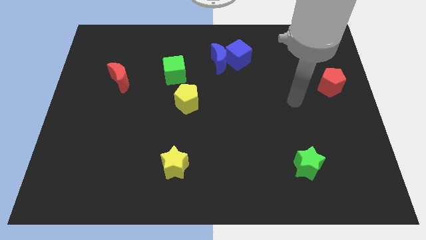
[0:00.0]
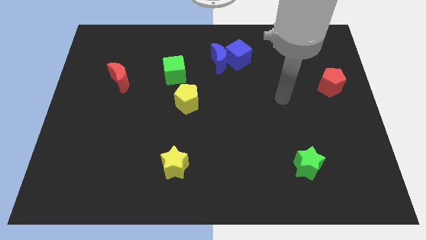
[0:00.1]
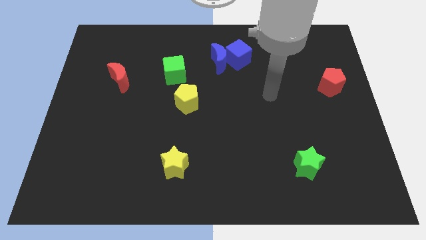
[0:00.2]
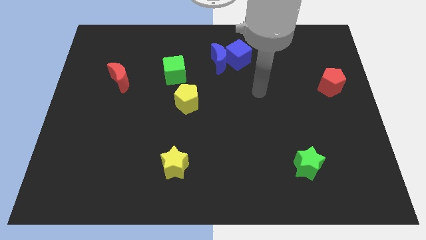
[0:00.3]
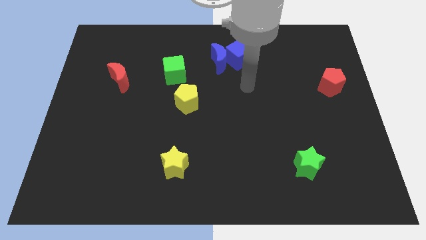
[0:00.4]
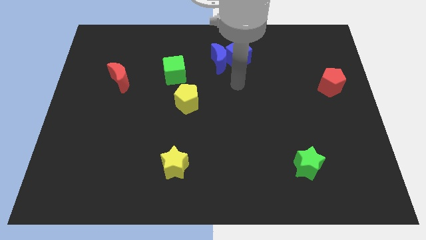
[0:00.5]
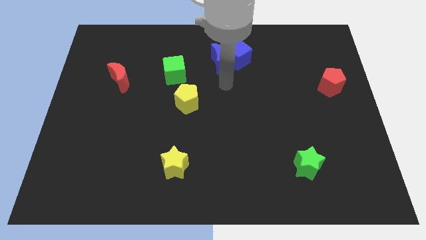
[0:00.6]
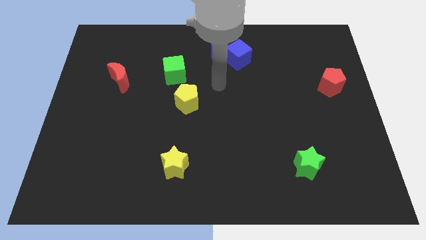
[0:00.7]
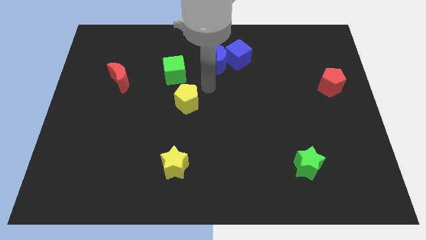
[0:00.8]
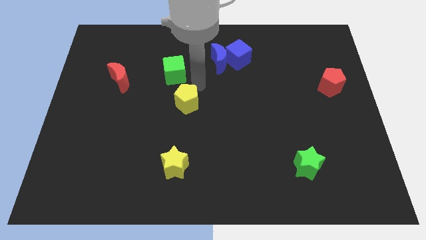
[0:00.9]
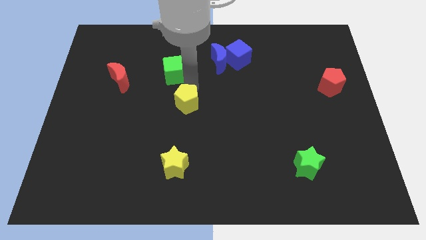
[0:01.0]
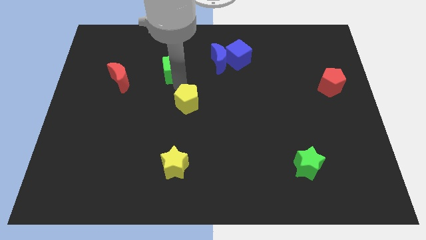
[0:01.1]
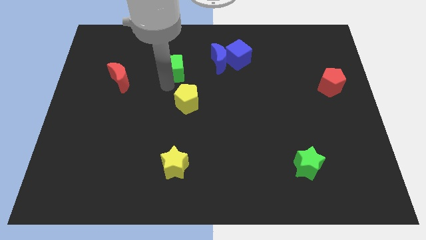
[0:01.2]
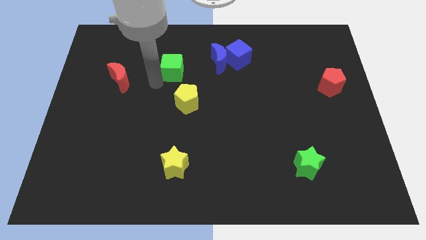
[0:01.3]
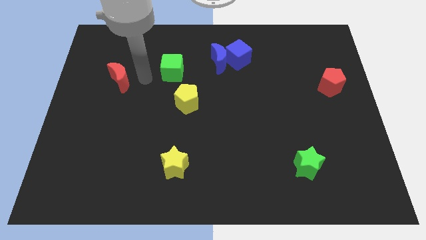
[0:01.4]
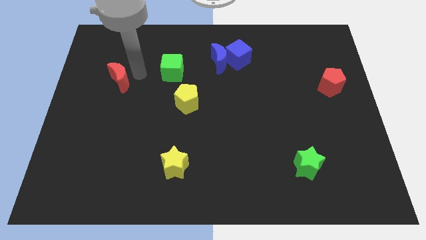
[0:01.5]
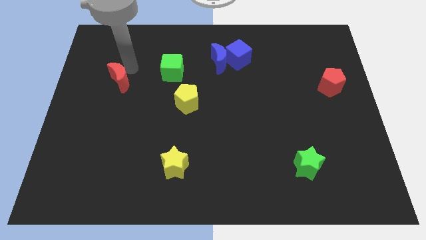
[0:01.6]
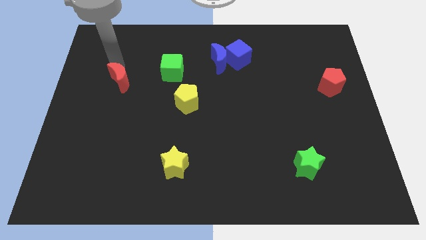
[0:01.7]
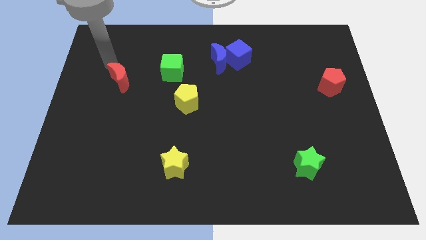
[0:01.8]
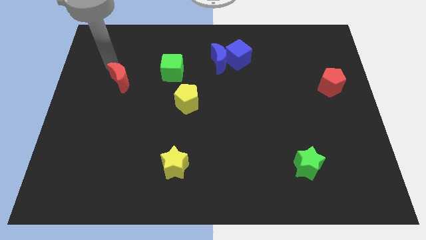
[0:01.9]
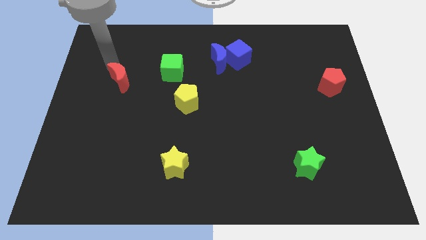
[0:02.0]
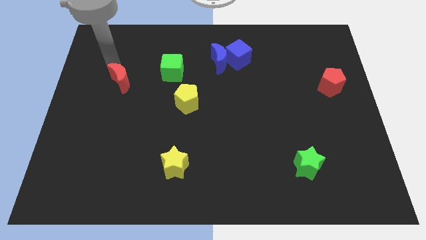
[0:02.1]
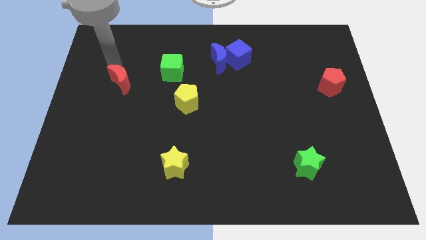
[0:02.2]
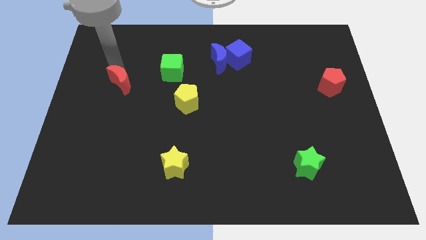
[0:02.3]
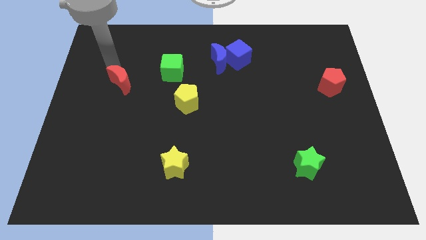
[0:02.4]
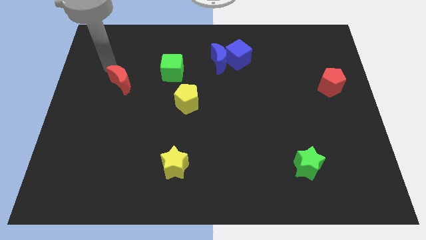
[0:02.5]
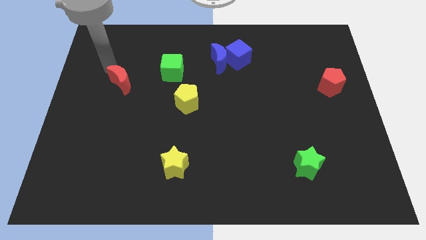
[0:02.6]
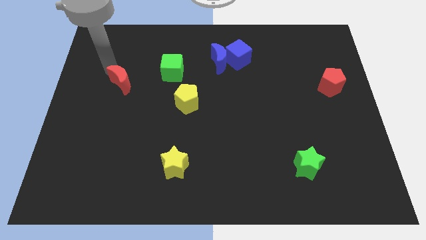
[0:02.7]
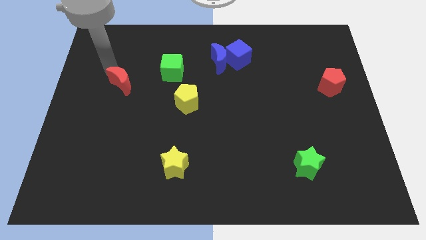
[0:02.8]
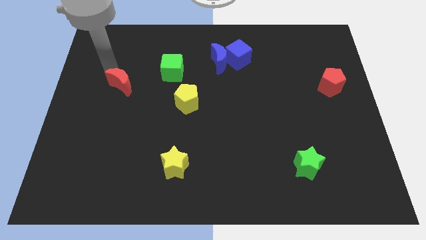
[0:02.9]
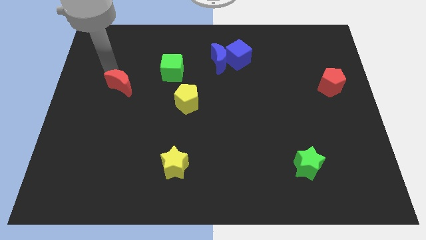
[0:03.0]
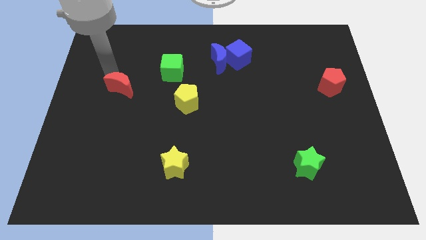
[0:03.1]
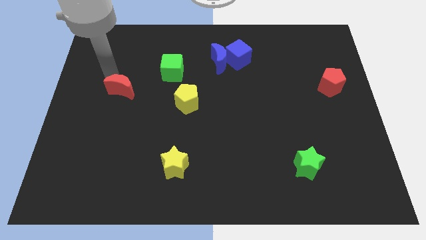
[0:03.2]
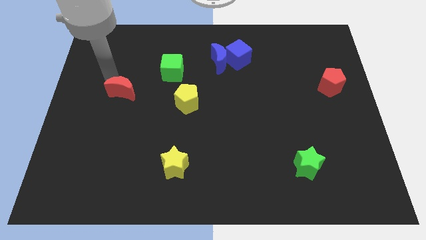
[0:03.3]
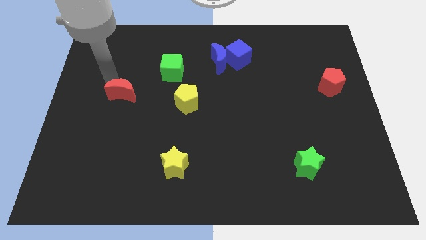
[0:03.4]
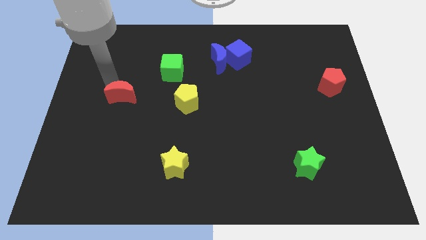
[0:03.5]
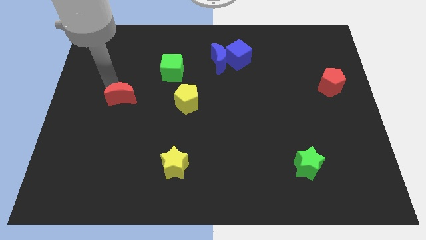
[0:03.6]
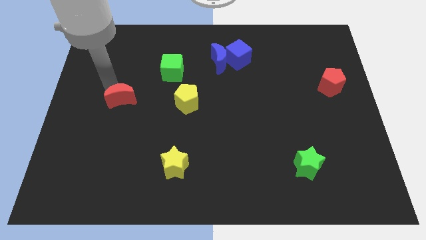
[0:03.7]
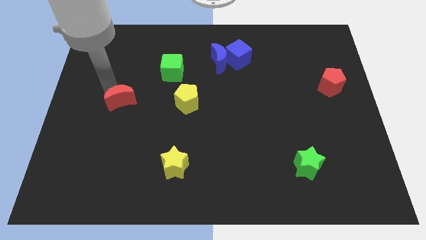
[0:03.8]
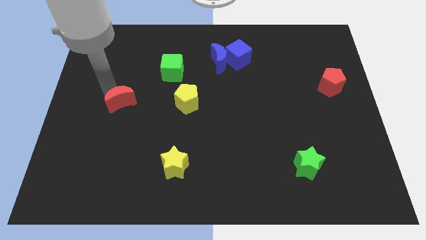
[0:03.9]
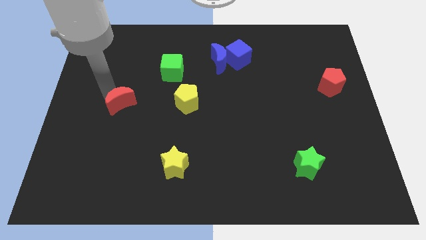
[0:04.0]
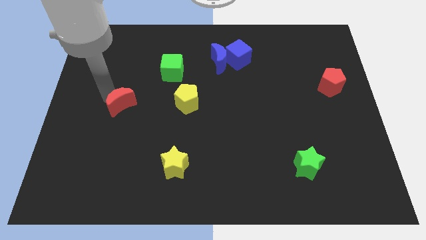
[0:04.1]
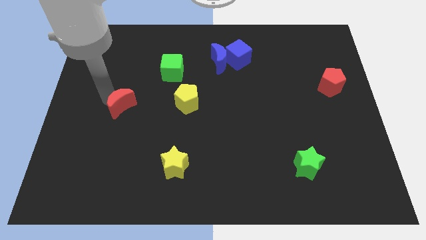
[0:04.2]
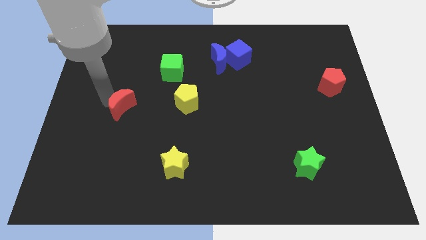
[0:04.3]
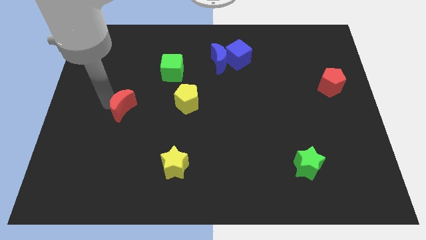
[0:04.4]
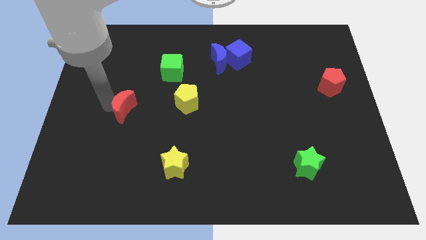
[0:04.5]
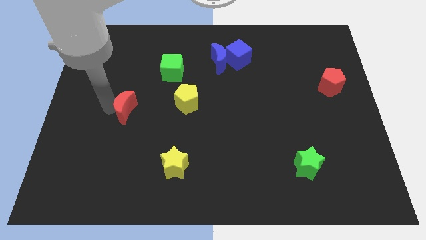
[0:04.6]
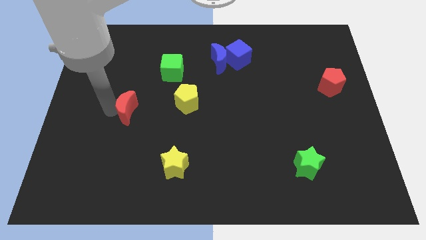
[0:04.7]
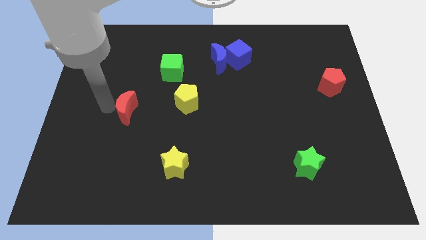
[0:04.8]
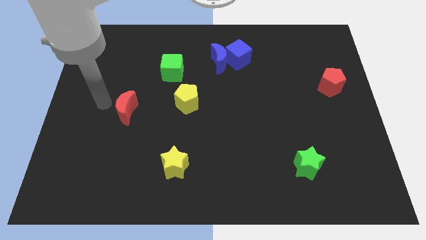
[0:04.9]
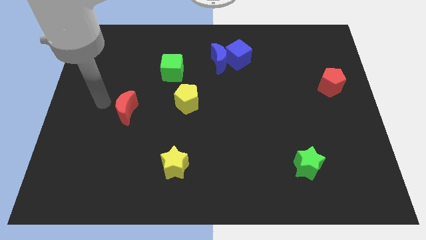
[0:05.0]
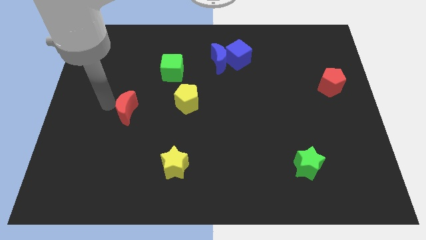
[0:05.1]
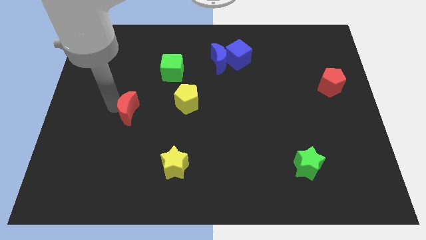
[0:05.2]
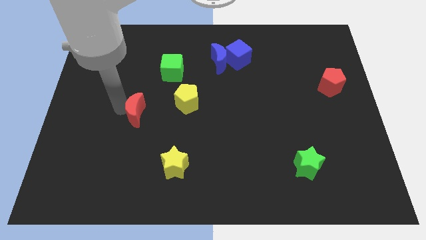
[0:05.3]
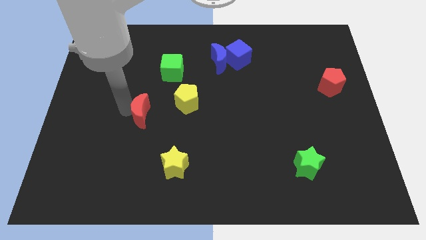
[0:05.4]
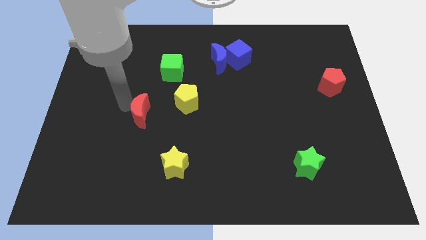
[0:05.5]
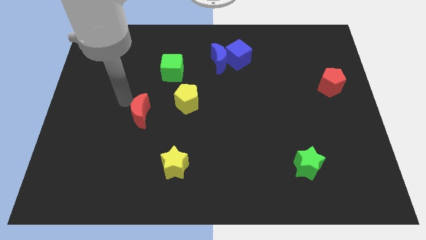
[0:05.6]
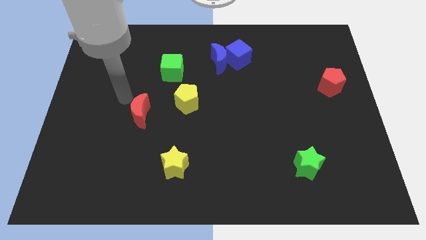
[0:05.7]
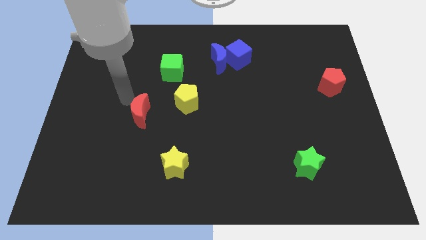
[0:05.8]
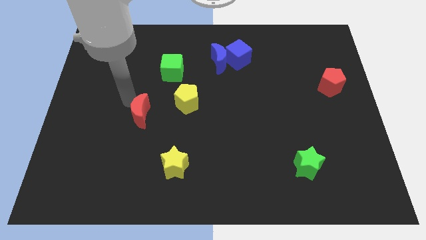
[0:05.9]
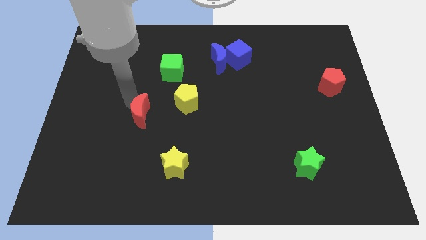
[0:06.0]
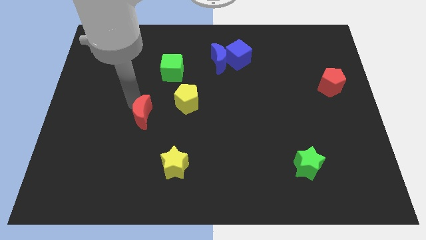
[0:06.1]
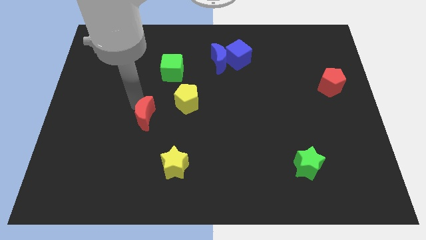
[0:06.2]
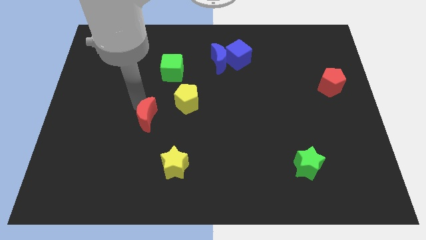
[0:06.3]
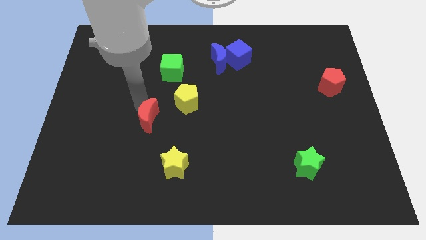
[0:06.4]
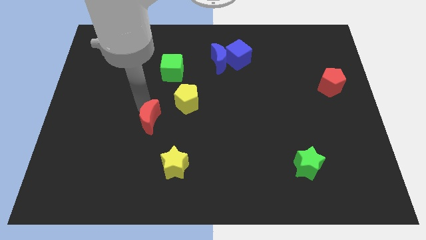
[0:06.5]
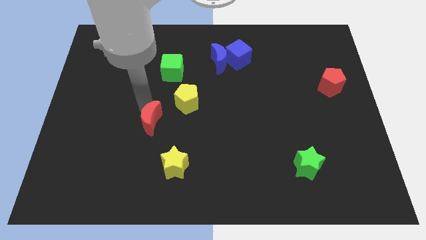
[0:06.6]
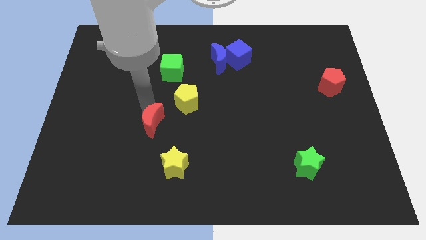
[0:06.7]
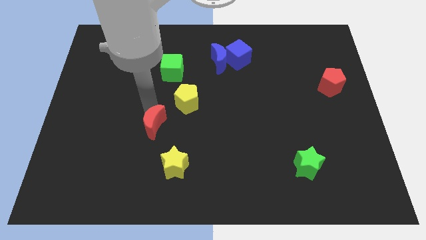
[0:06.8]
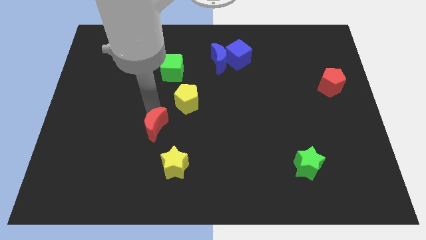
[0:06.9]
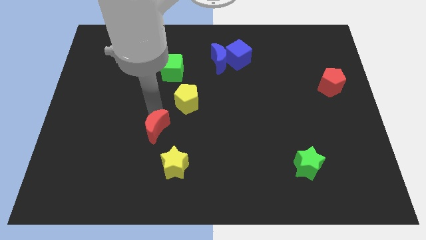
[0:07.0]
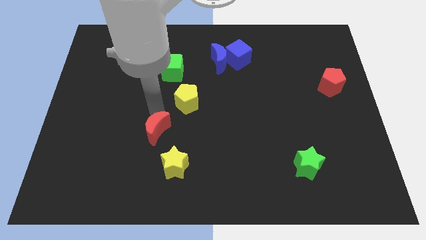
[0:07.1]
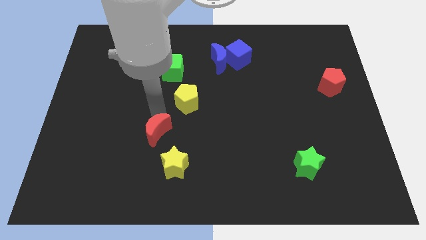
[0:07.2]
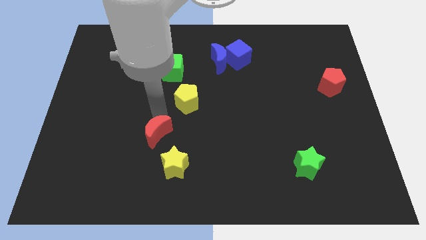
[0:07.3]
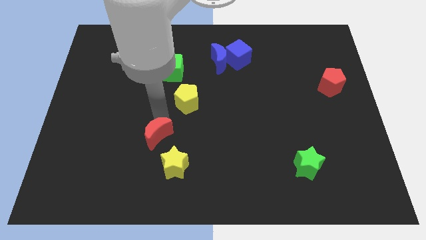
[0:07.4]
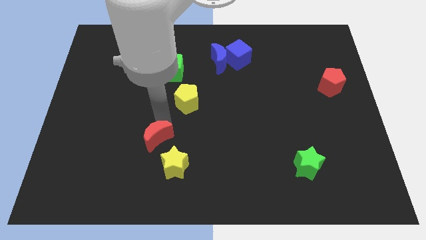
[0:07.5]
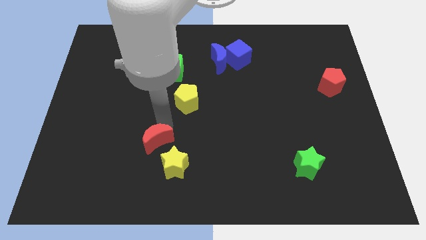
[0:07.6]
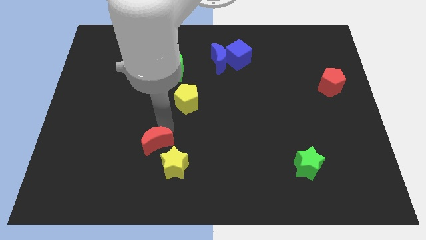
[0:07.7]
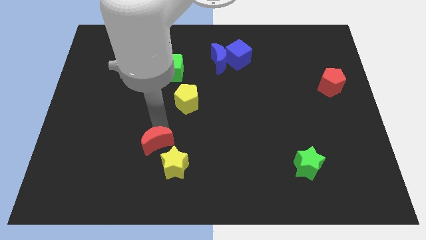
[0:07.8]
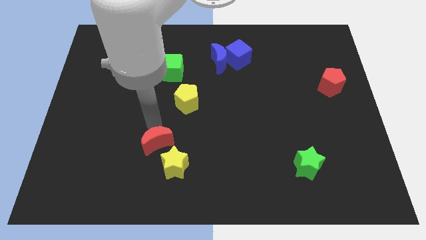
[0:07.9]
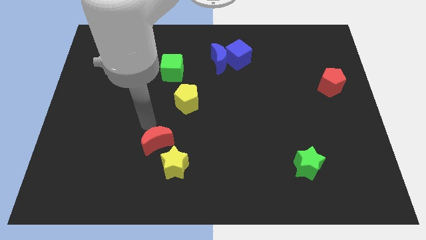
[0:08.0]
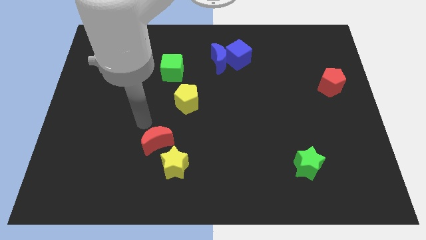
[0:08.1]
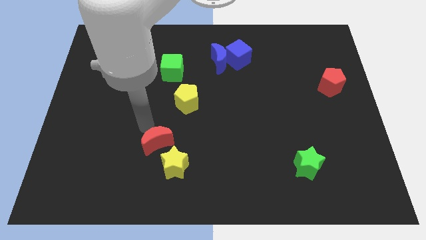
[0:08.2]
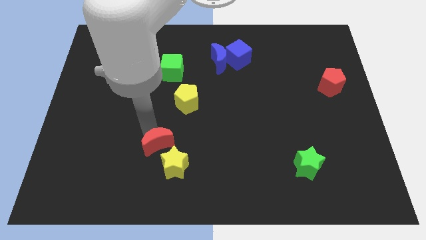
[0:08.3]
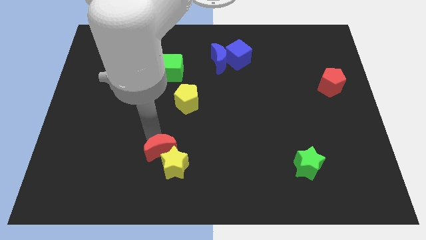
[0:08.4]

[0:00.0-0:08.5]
push the red moon close to the yellow star
